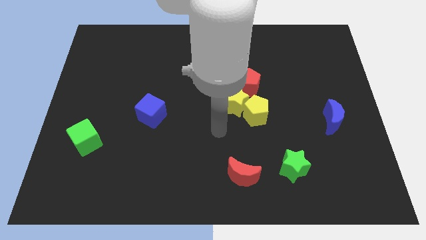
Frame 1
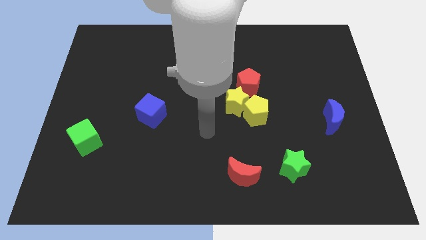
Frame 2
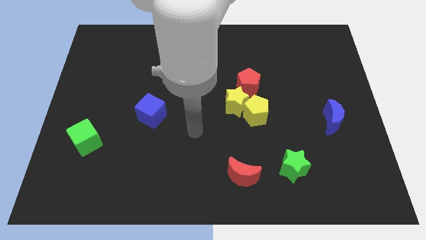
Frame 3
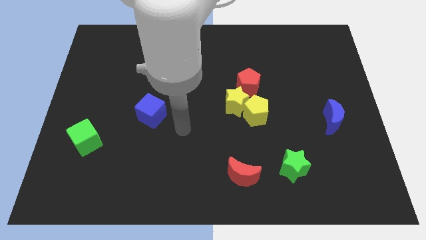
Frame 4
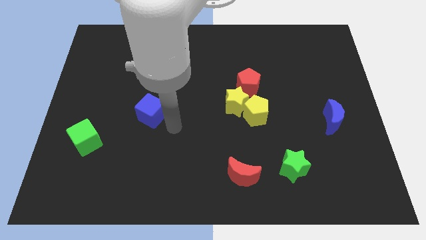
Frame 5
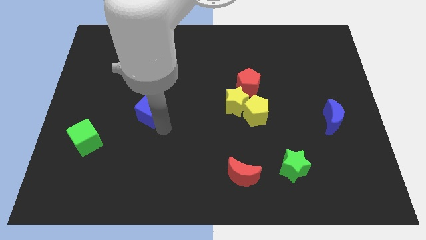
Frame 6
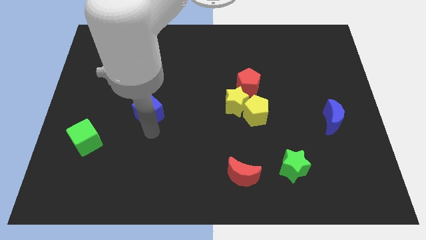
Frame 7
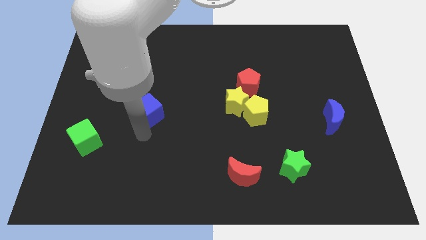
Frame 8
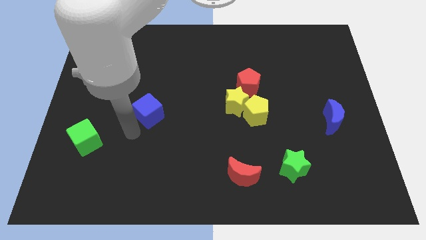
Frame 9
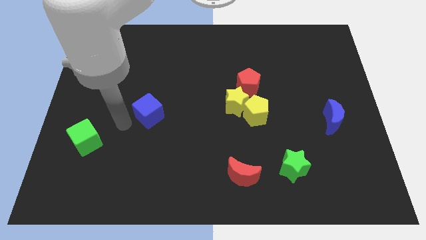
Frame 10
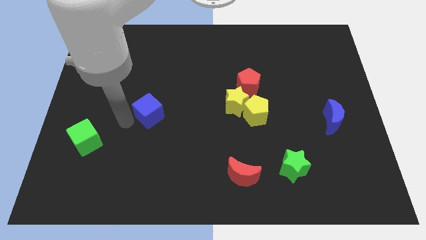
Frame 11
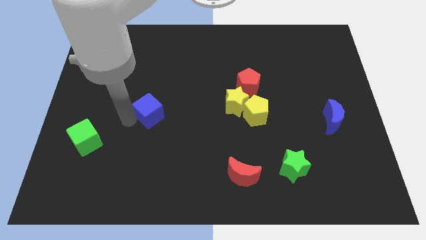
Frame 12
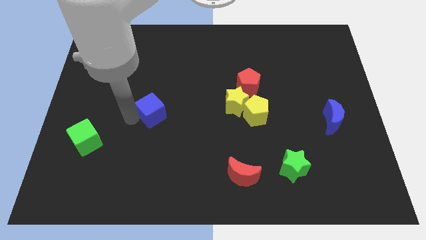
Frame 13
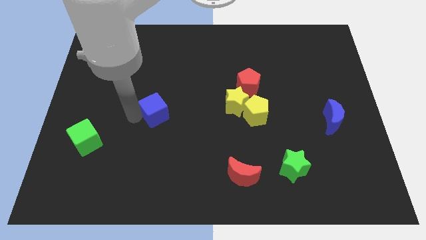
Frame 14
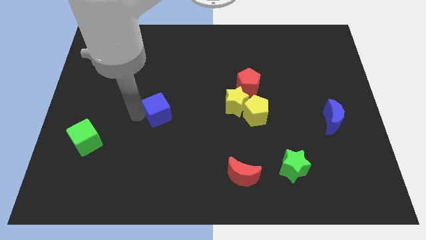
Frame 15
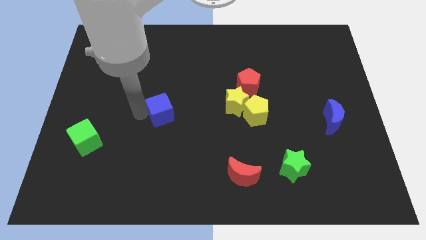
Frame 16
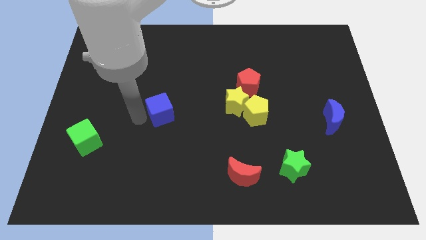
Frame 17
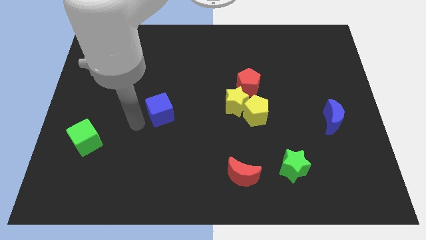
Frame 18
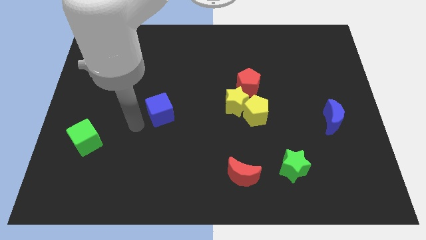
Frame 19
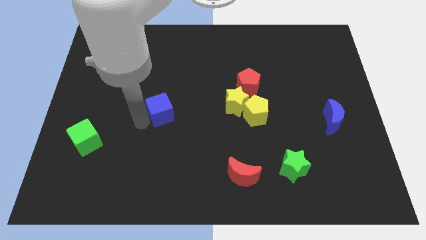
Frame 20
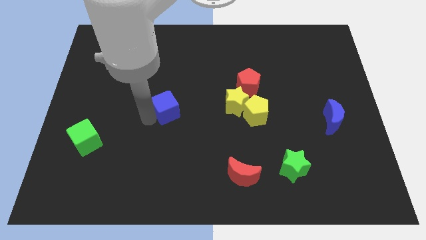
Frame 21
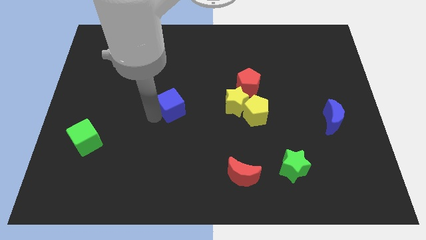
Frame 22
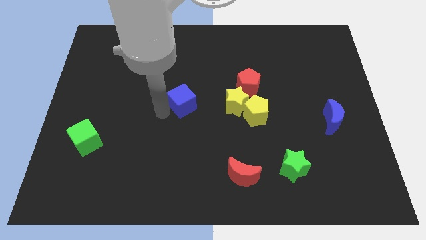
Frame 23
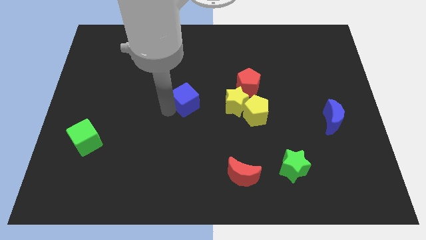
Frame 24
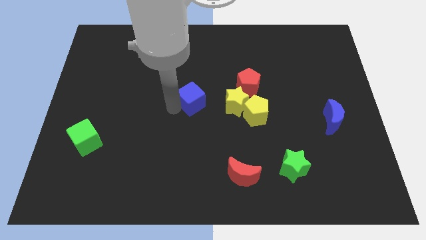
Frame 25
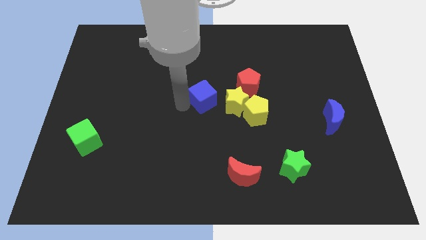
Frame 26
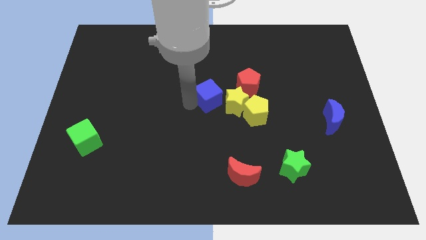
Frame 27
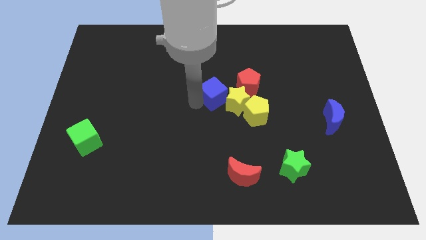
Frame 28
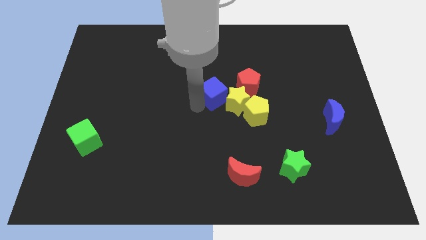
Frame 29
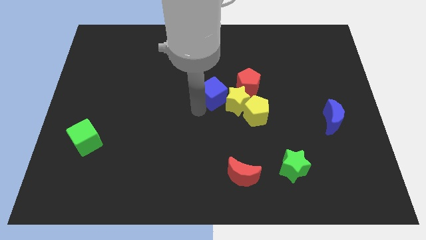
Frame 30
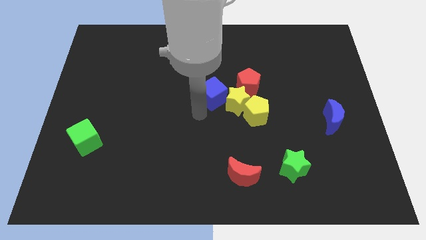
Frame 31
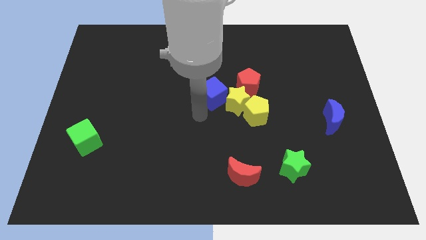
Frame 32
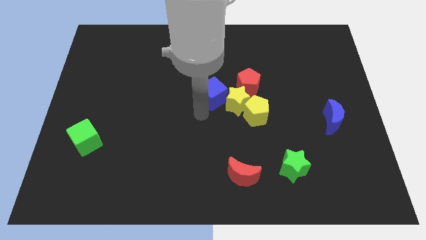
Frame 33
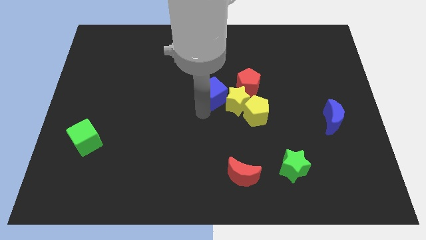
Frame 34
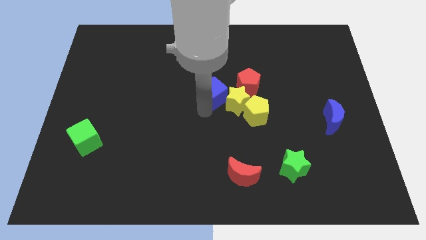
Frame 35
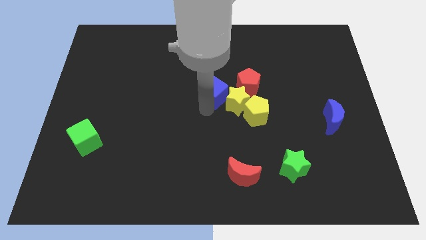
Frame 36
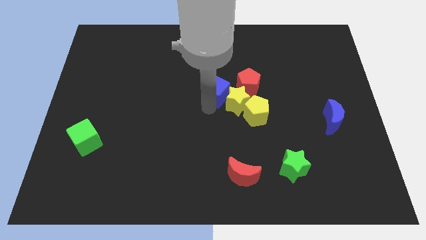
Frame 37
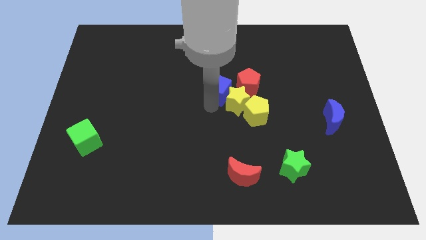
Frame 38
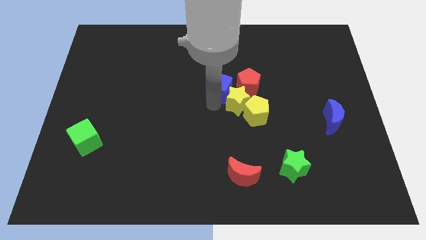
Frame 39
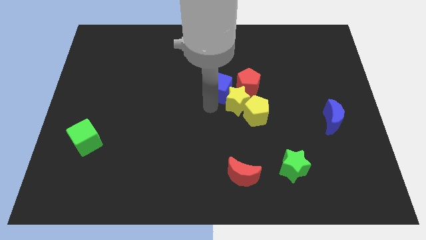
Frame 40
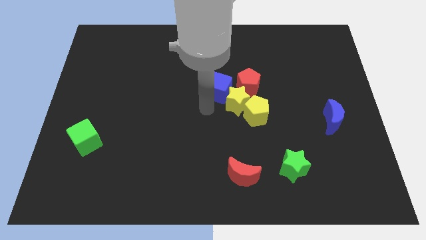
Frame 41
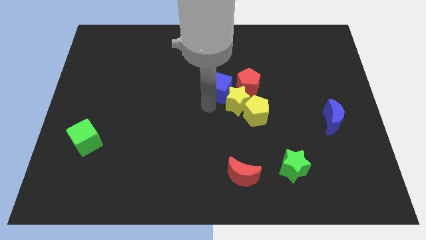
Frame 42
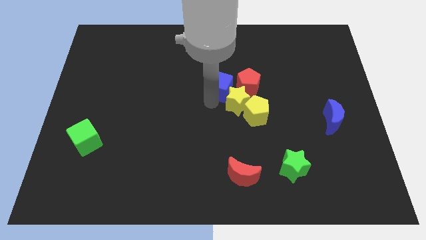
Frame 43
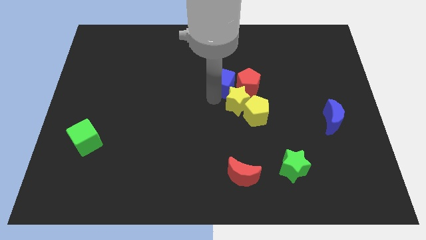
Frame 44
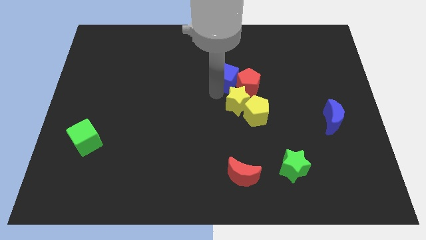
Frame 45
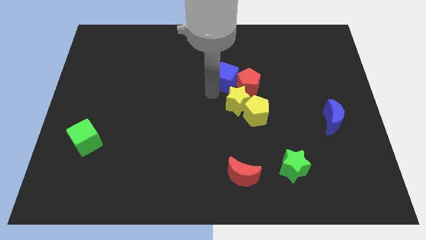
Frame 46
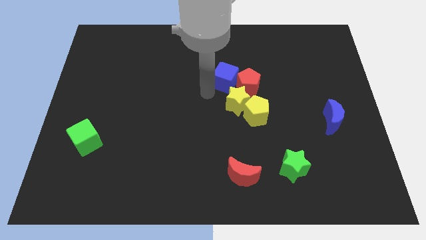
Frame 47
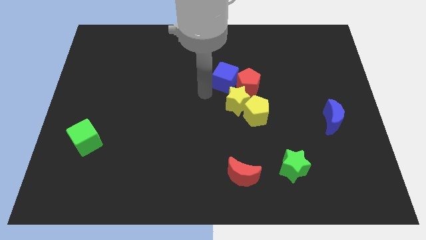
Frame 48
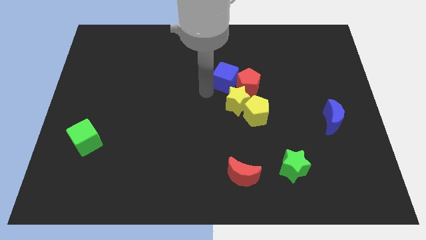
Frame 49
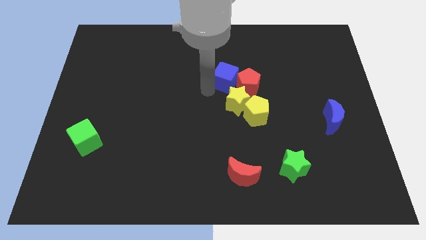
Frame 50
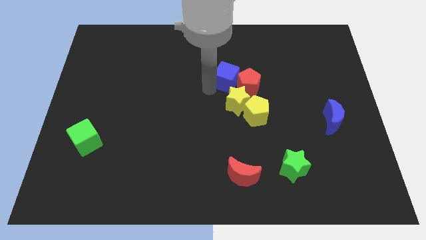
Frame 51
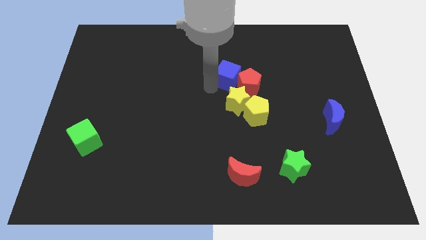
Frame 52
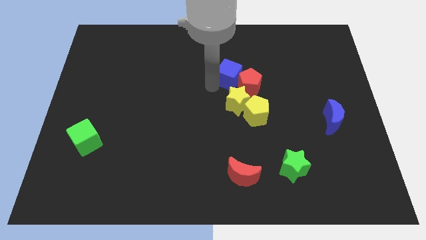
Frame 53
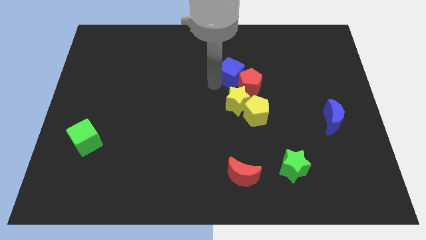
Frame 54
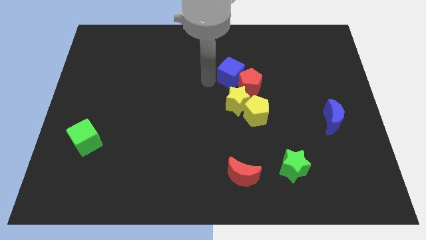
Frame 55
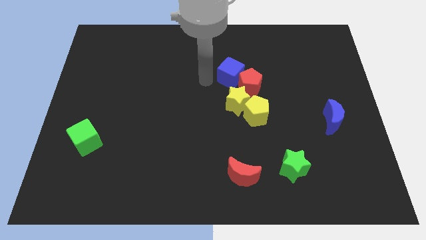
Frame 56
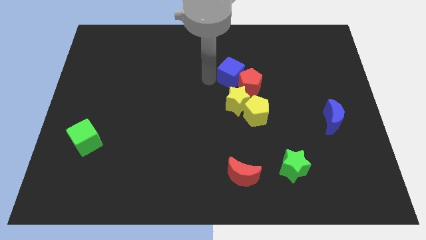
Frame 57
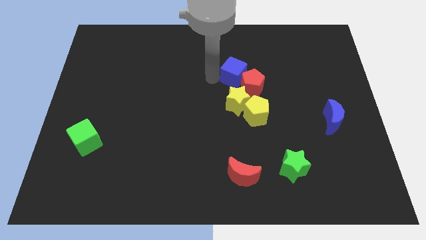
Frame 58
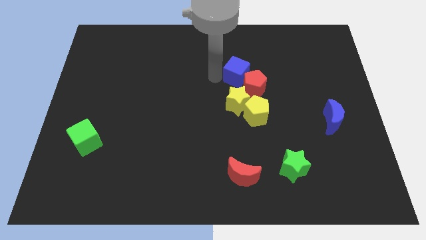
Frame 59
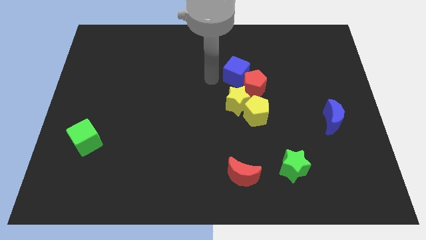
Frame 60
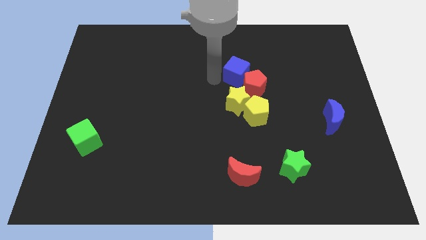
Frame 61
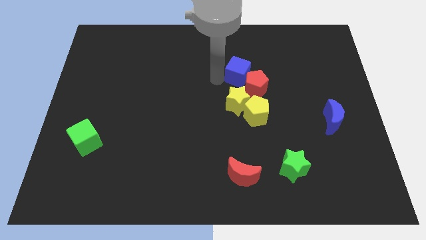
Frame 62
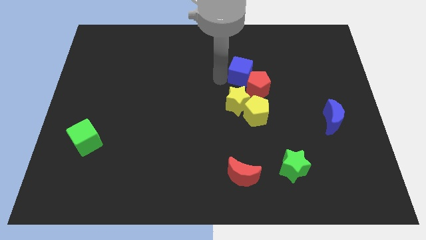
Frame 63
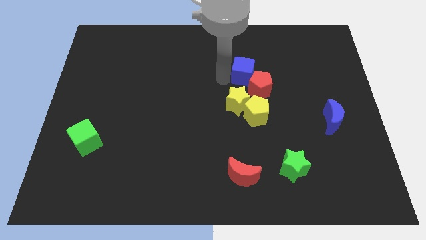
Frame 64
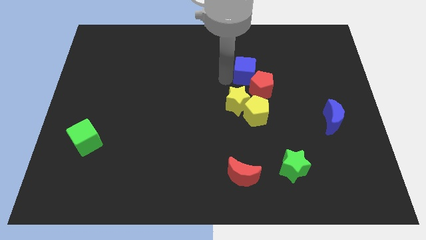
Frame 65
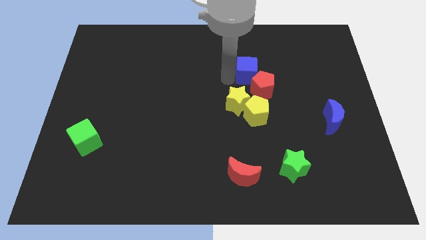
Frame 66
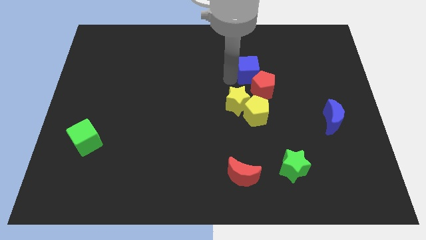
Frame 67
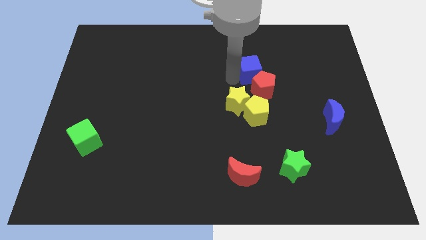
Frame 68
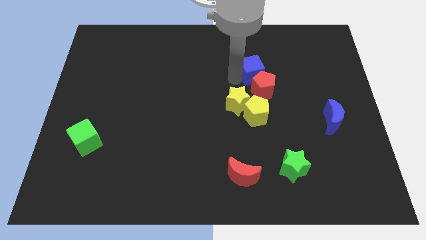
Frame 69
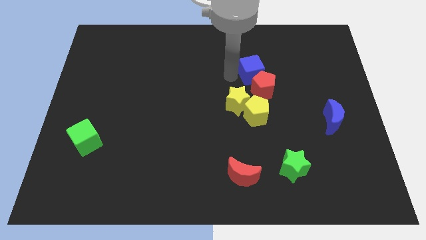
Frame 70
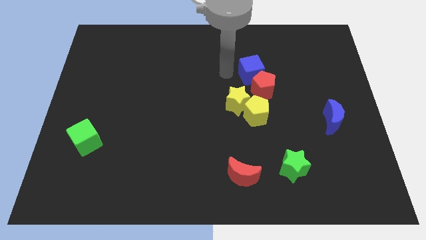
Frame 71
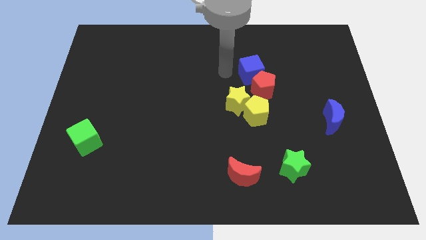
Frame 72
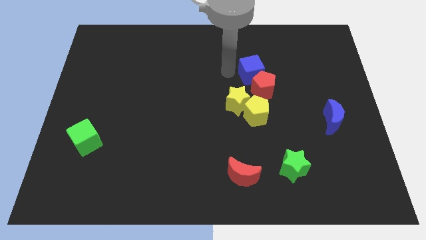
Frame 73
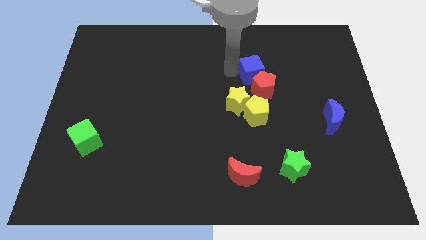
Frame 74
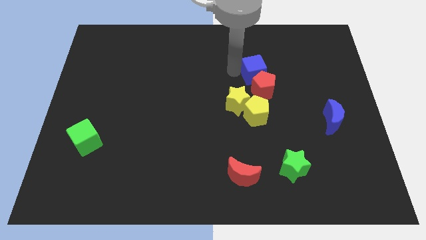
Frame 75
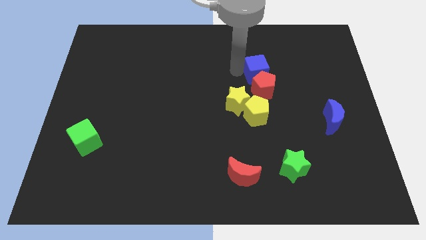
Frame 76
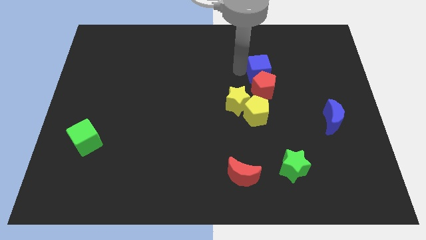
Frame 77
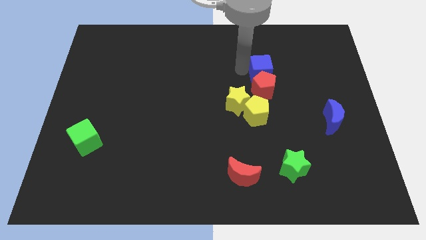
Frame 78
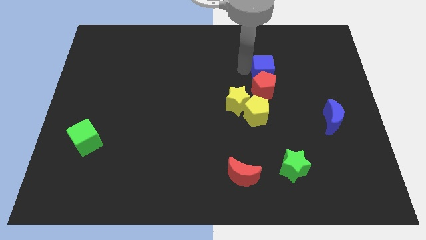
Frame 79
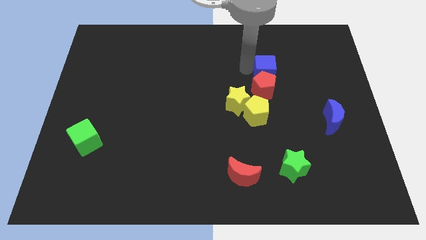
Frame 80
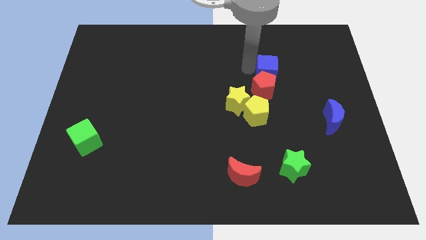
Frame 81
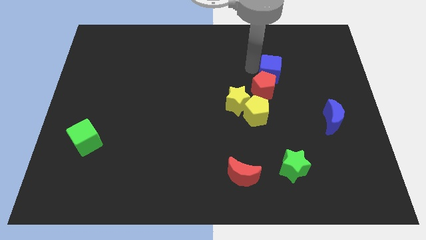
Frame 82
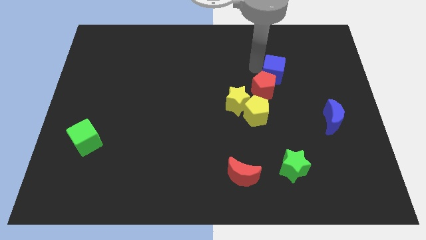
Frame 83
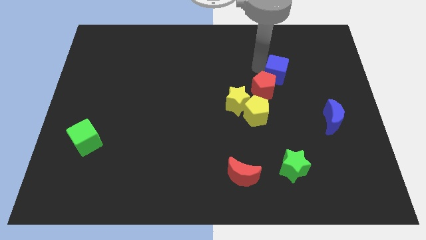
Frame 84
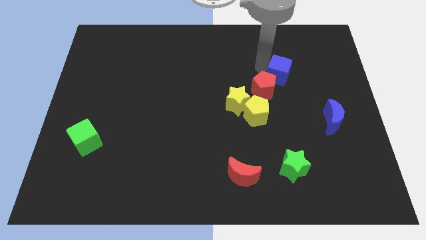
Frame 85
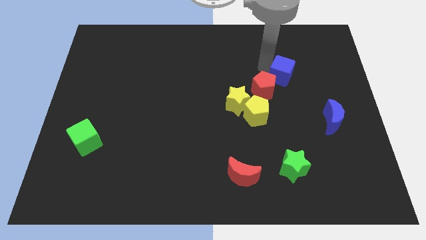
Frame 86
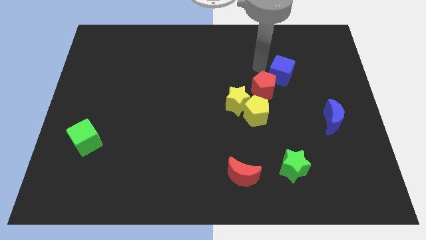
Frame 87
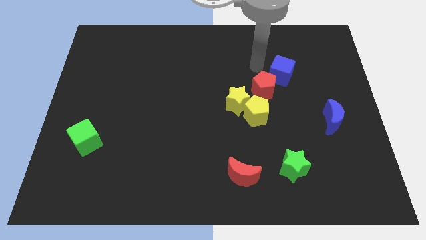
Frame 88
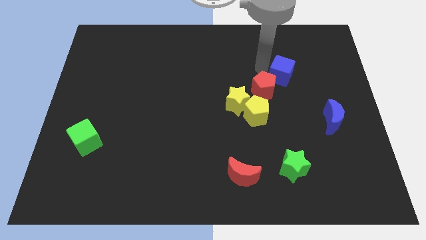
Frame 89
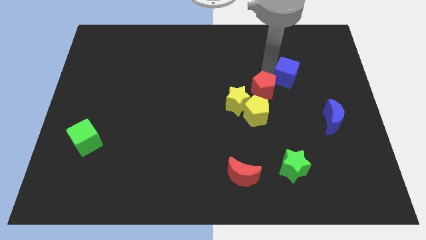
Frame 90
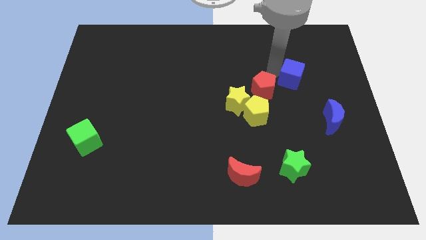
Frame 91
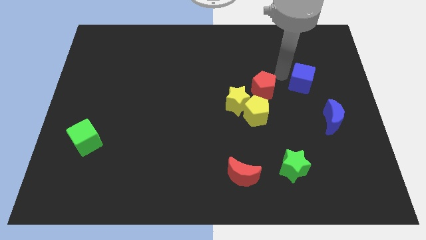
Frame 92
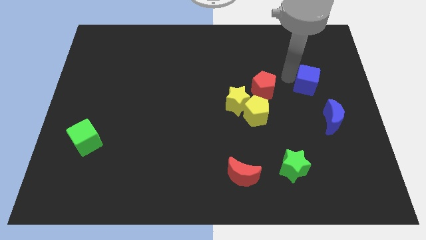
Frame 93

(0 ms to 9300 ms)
move the blue cube to the top side of the blue moon
